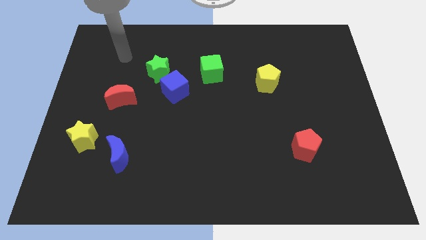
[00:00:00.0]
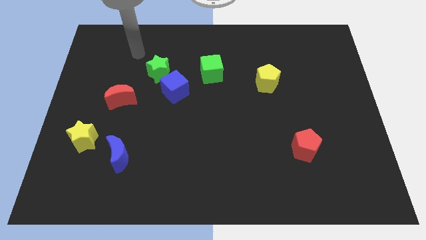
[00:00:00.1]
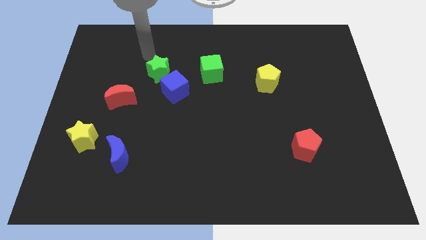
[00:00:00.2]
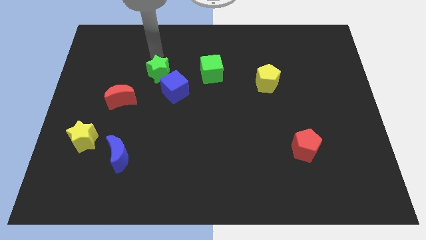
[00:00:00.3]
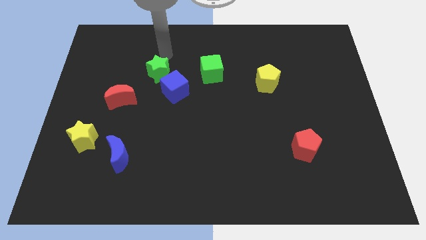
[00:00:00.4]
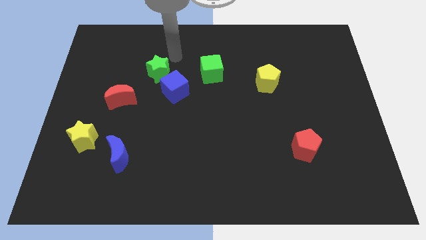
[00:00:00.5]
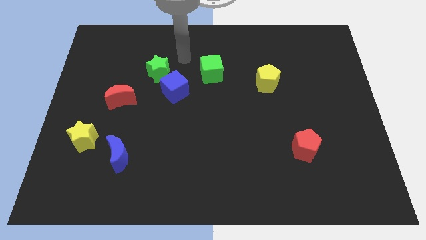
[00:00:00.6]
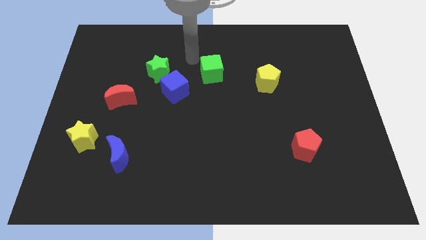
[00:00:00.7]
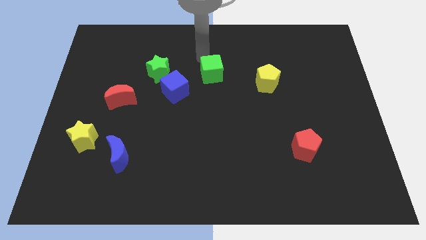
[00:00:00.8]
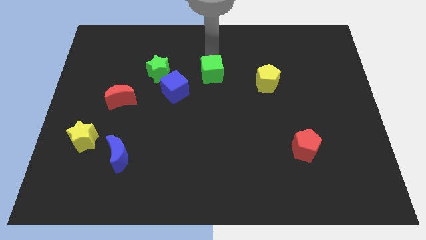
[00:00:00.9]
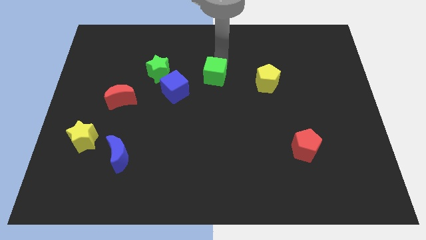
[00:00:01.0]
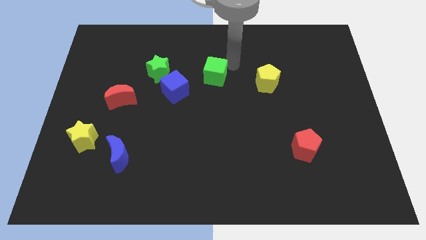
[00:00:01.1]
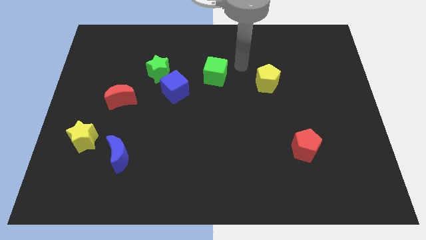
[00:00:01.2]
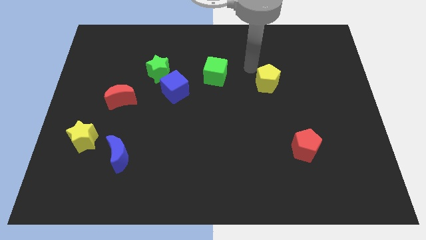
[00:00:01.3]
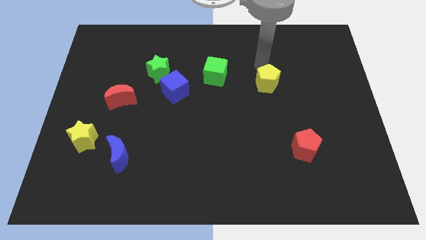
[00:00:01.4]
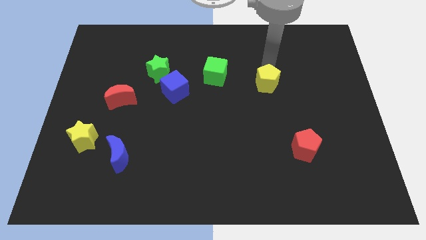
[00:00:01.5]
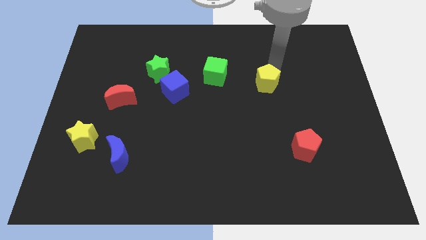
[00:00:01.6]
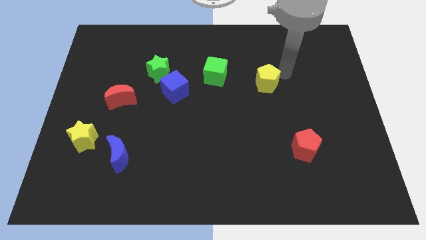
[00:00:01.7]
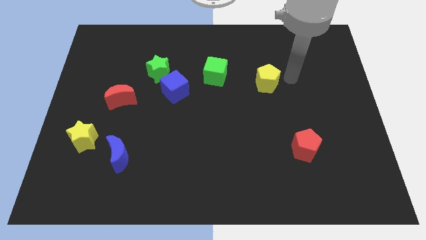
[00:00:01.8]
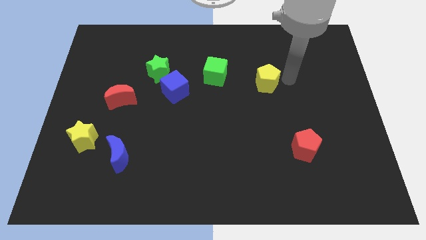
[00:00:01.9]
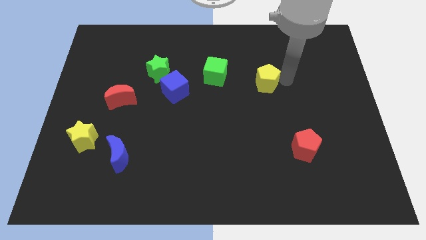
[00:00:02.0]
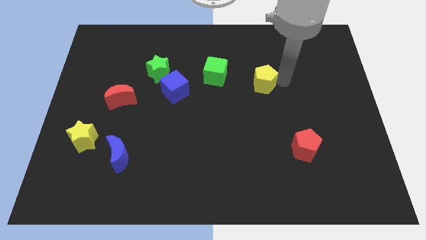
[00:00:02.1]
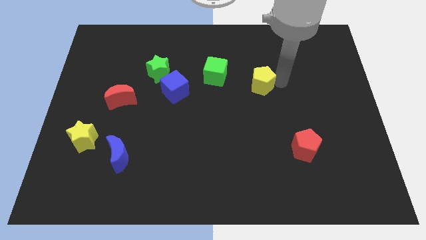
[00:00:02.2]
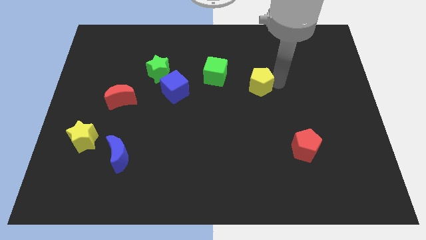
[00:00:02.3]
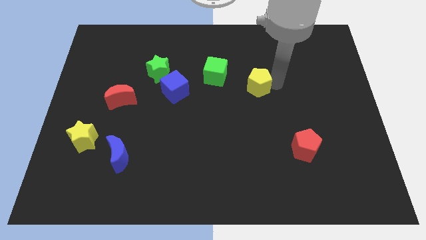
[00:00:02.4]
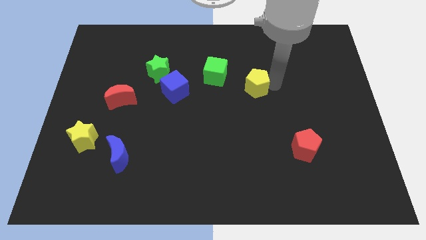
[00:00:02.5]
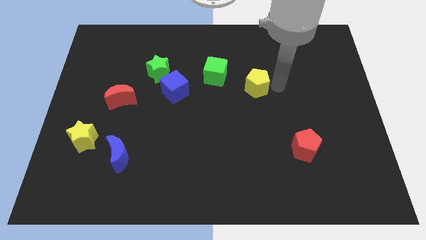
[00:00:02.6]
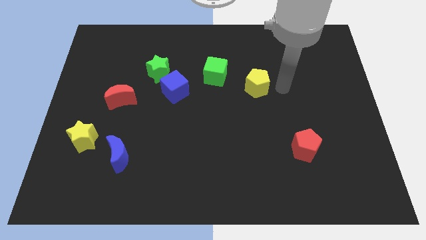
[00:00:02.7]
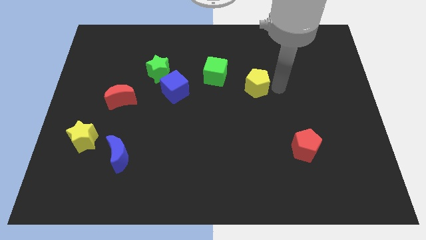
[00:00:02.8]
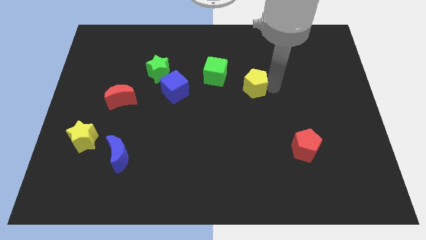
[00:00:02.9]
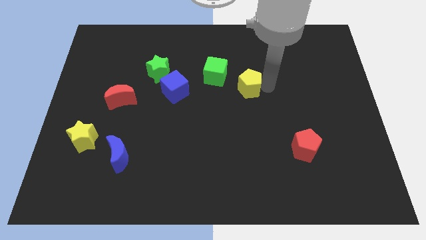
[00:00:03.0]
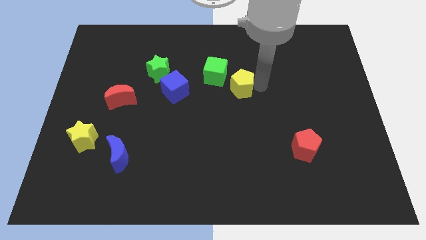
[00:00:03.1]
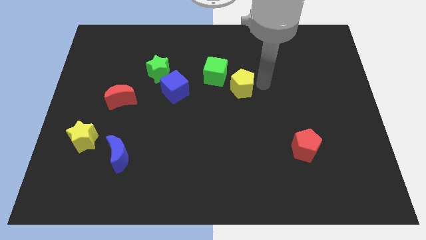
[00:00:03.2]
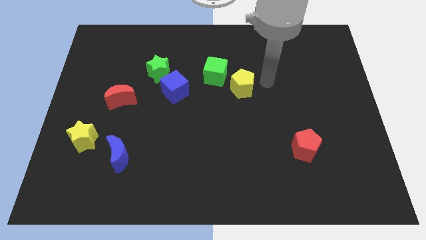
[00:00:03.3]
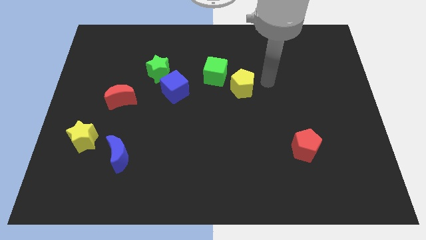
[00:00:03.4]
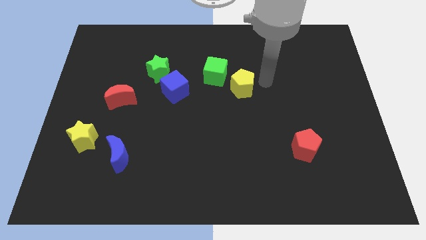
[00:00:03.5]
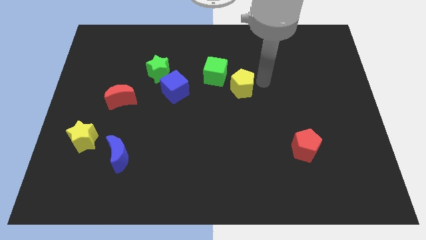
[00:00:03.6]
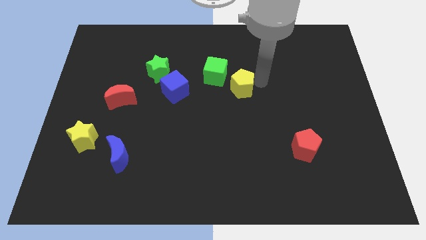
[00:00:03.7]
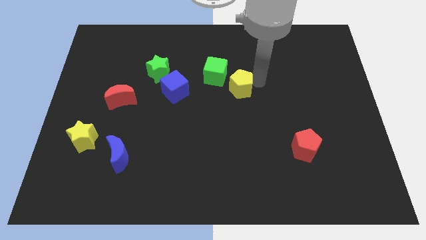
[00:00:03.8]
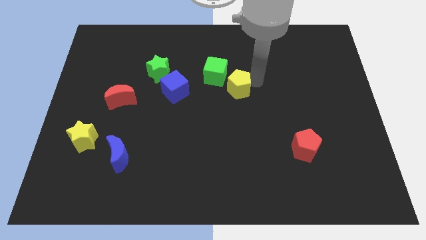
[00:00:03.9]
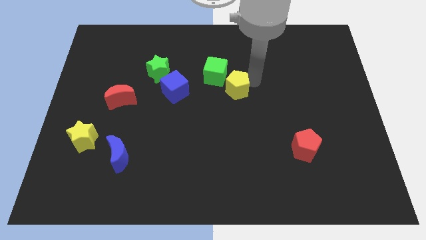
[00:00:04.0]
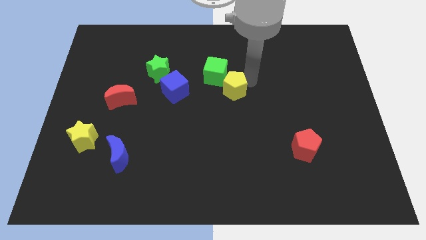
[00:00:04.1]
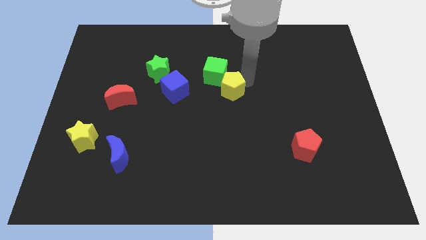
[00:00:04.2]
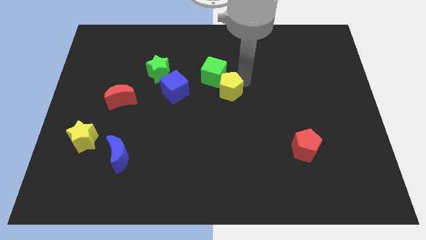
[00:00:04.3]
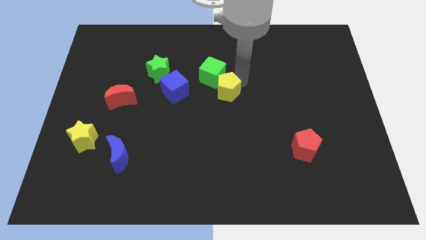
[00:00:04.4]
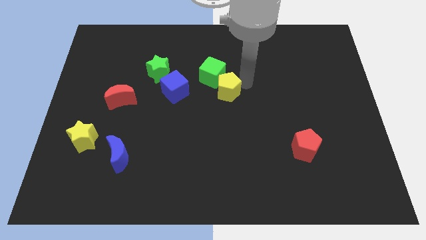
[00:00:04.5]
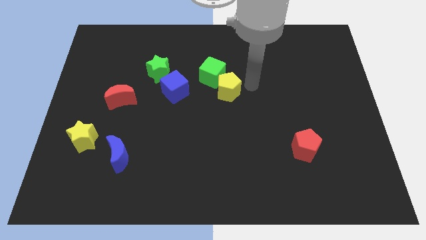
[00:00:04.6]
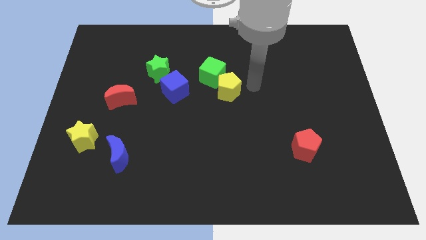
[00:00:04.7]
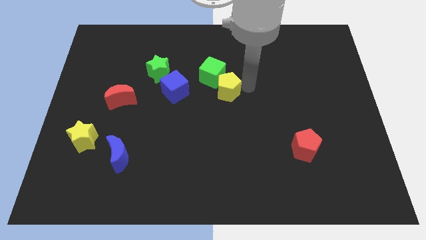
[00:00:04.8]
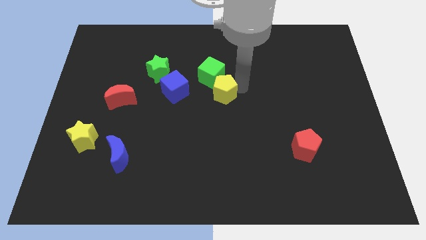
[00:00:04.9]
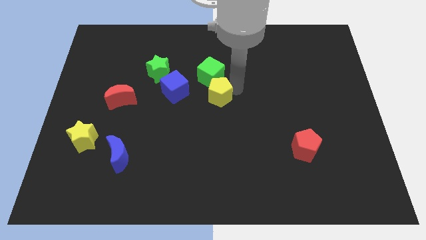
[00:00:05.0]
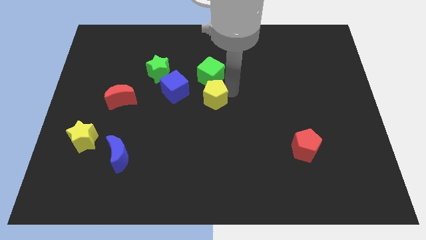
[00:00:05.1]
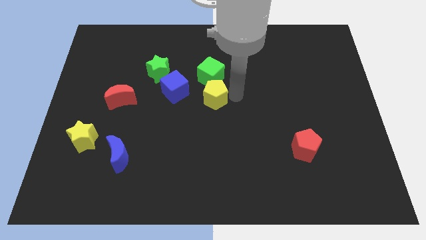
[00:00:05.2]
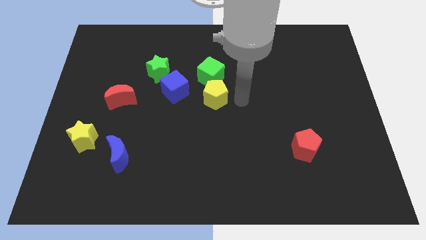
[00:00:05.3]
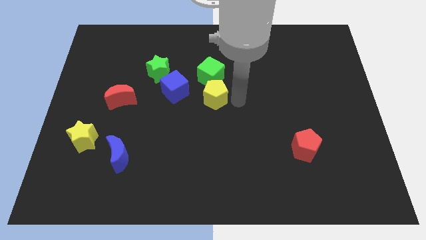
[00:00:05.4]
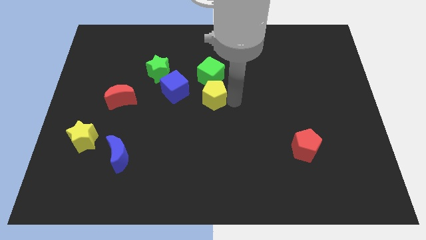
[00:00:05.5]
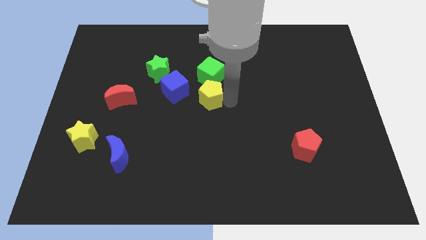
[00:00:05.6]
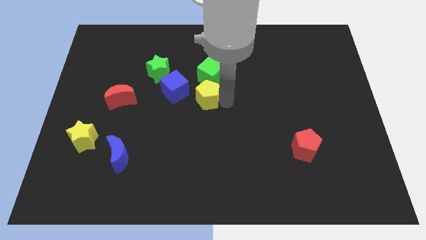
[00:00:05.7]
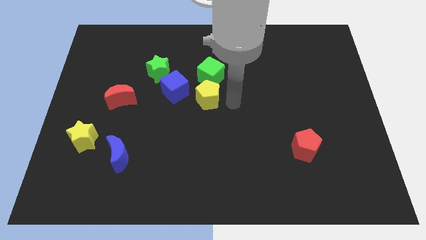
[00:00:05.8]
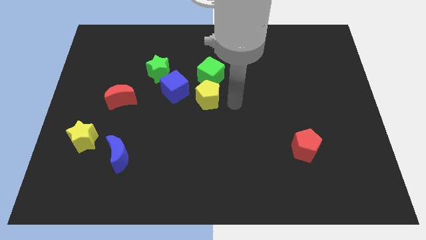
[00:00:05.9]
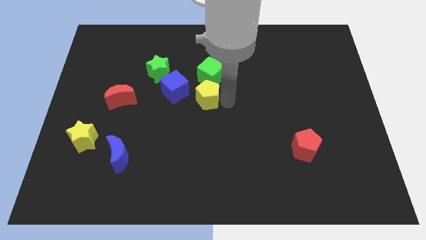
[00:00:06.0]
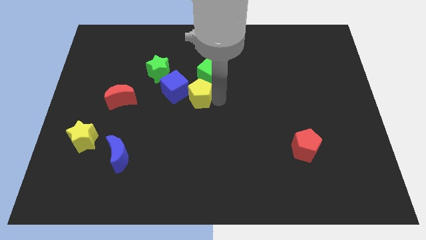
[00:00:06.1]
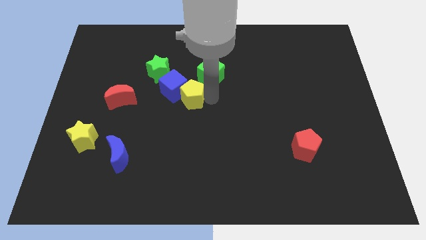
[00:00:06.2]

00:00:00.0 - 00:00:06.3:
put the yellow pentagon close to the blue cube

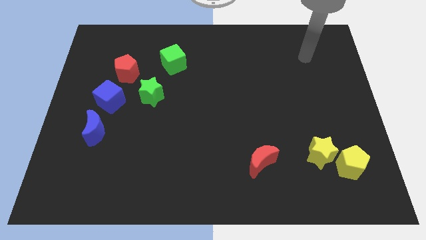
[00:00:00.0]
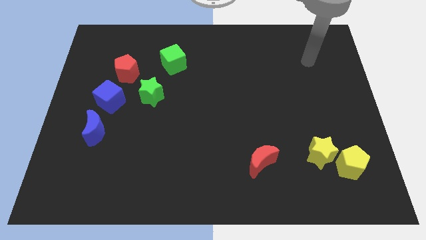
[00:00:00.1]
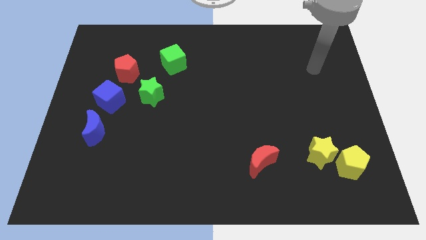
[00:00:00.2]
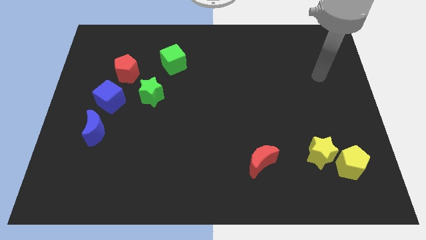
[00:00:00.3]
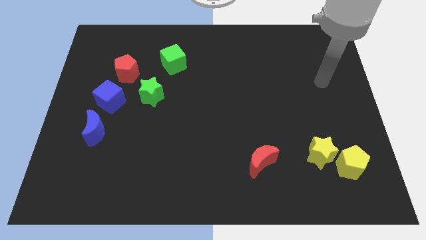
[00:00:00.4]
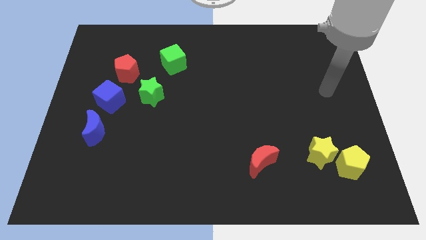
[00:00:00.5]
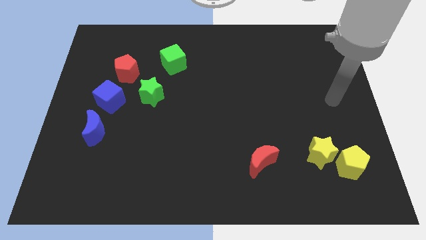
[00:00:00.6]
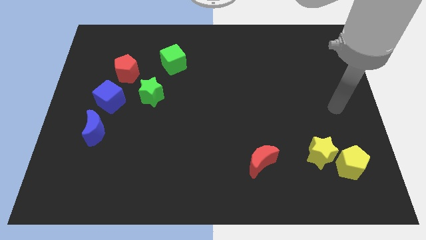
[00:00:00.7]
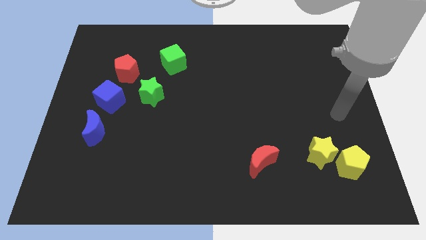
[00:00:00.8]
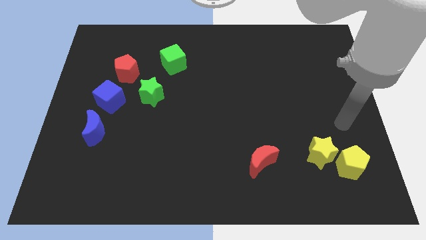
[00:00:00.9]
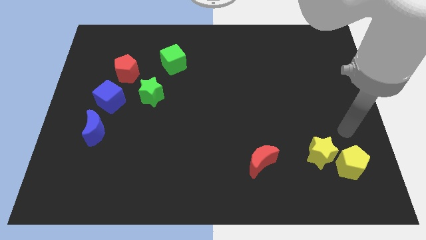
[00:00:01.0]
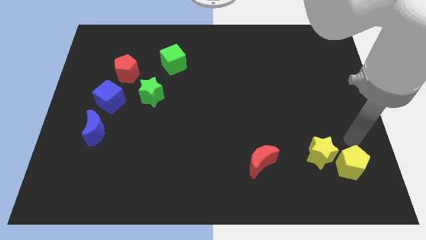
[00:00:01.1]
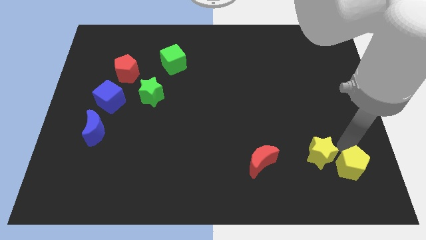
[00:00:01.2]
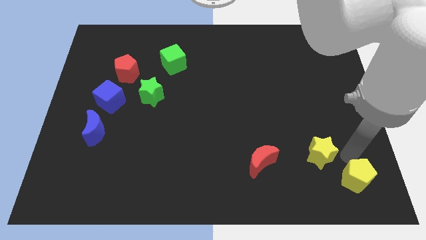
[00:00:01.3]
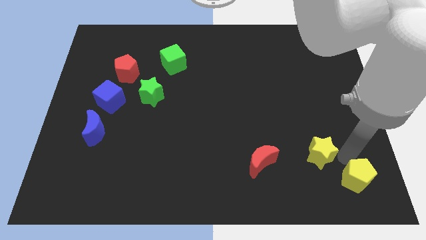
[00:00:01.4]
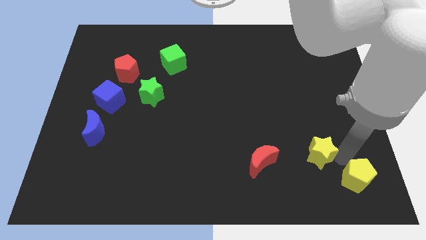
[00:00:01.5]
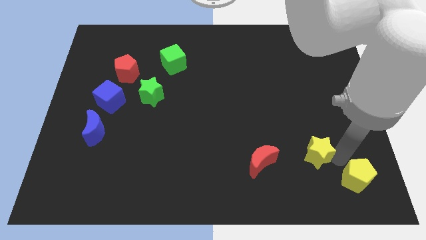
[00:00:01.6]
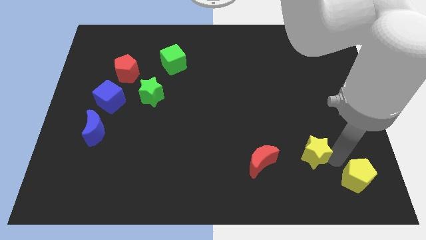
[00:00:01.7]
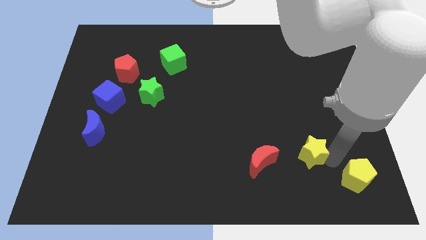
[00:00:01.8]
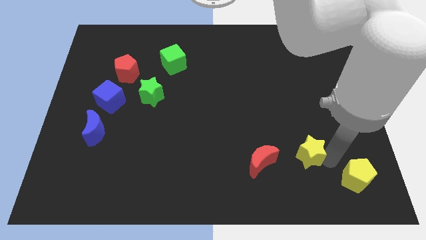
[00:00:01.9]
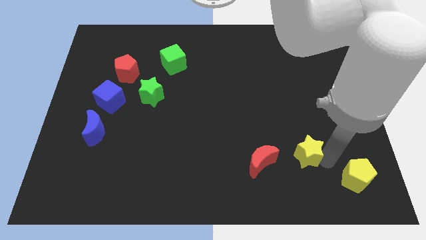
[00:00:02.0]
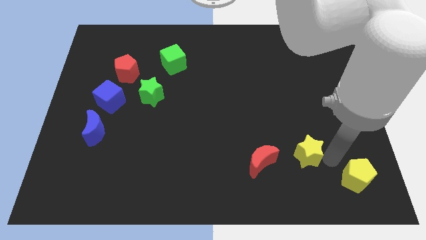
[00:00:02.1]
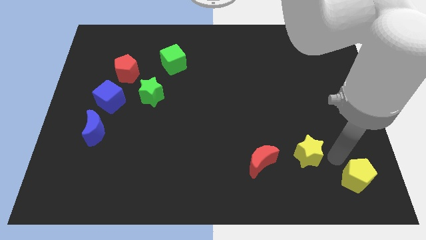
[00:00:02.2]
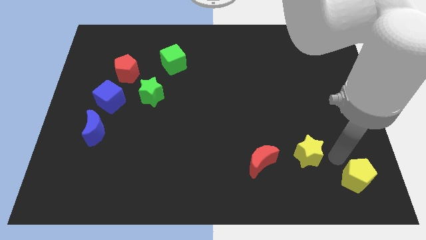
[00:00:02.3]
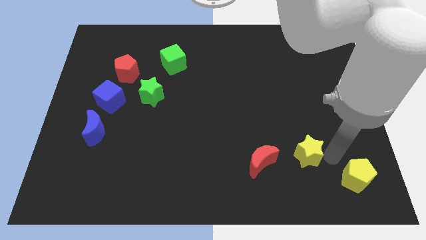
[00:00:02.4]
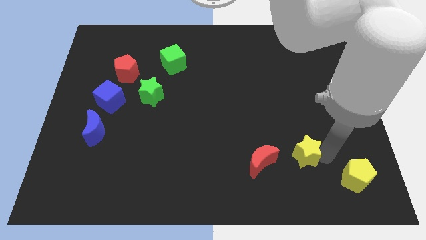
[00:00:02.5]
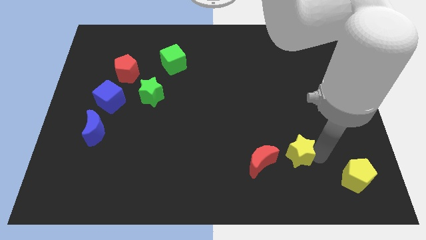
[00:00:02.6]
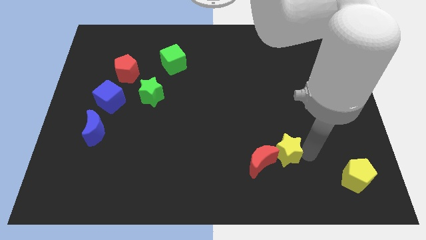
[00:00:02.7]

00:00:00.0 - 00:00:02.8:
slide the yellow star next to the red moon
